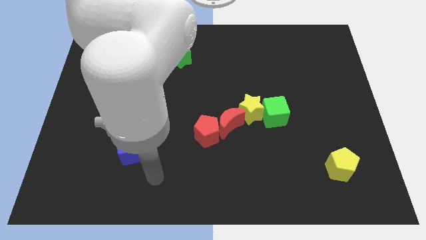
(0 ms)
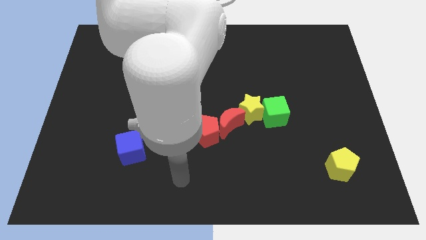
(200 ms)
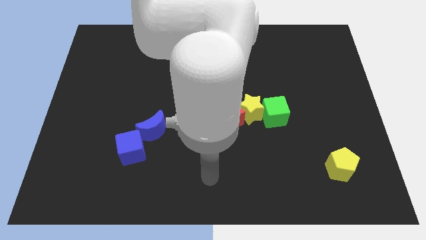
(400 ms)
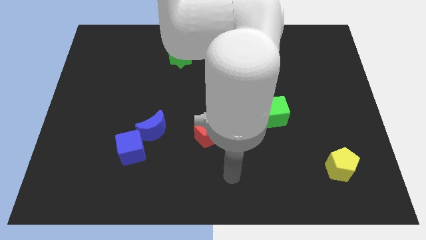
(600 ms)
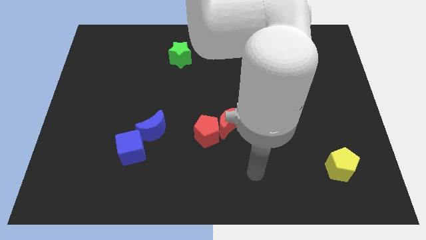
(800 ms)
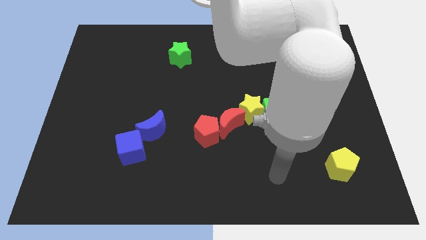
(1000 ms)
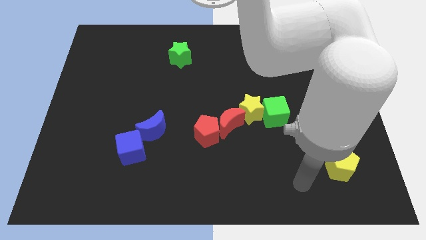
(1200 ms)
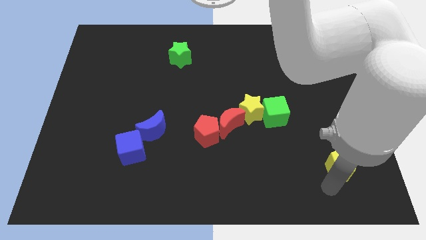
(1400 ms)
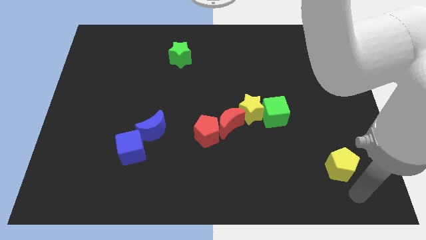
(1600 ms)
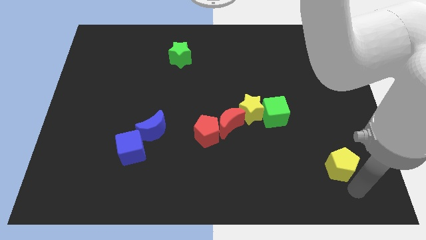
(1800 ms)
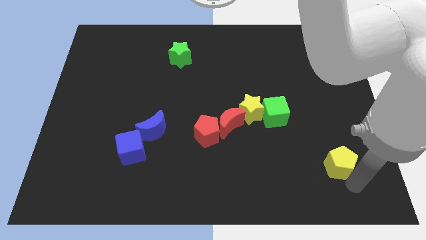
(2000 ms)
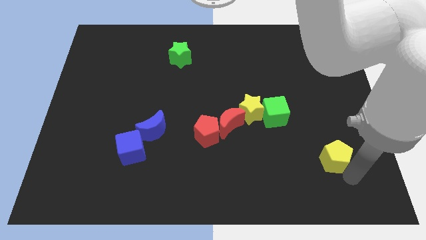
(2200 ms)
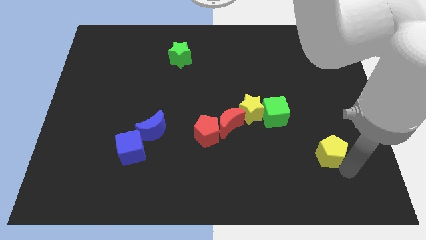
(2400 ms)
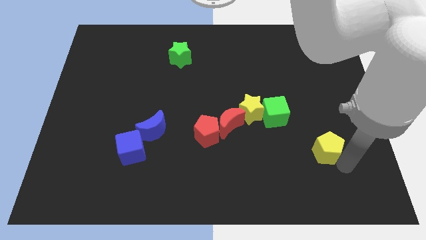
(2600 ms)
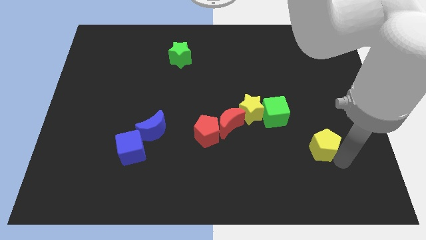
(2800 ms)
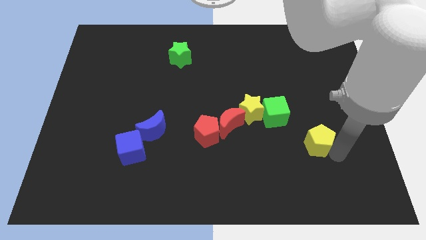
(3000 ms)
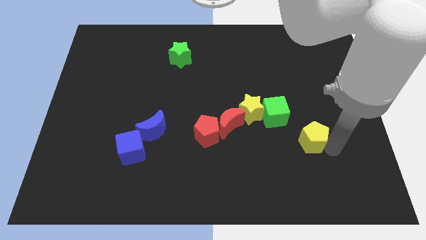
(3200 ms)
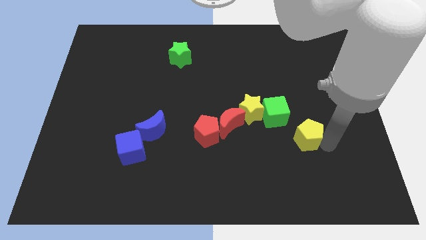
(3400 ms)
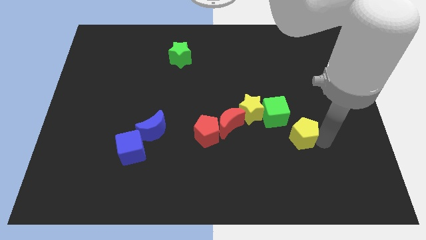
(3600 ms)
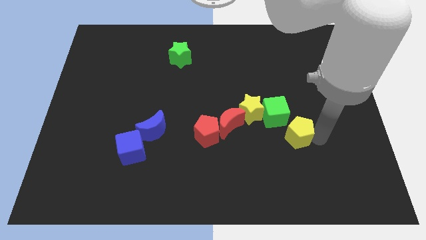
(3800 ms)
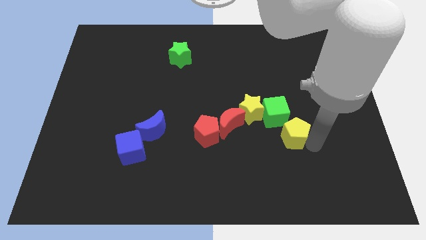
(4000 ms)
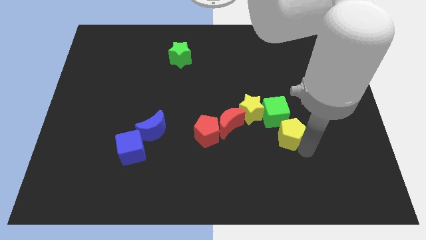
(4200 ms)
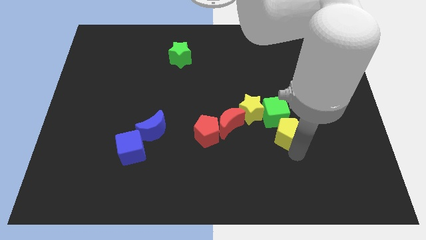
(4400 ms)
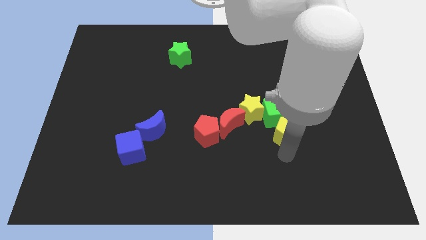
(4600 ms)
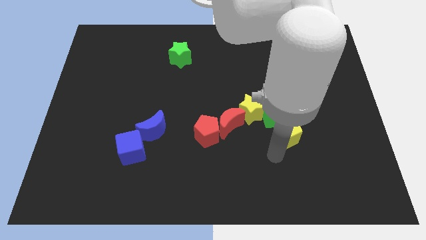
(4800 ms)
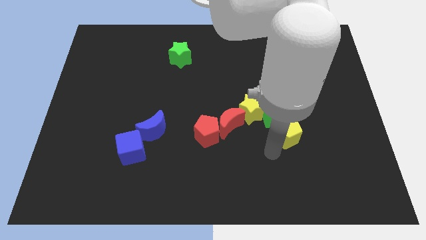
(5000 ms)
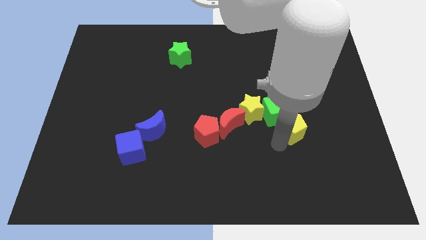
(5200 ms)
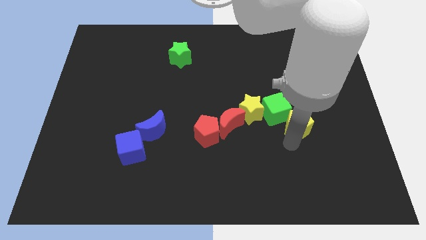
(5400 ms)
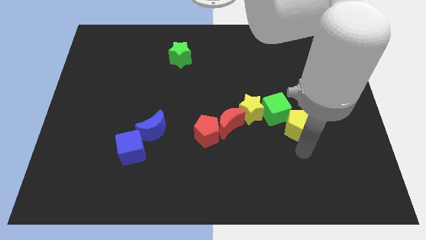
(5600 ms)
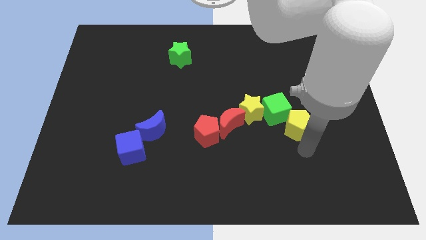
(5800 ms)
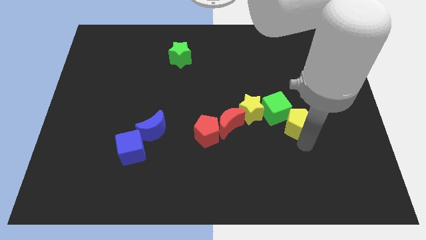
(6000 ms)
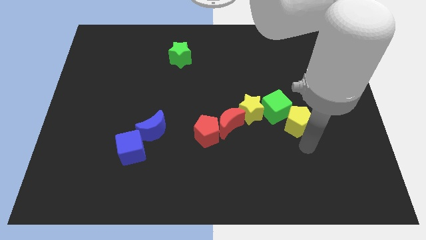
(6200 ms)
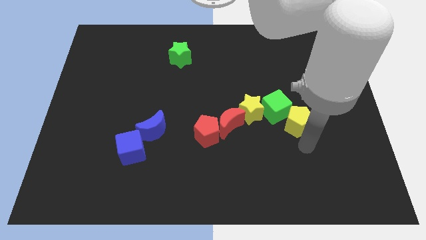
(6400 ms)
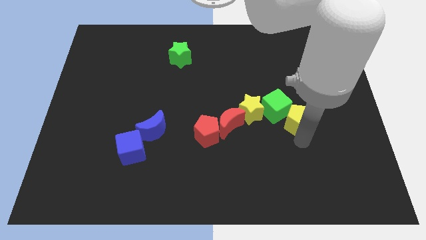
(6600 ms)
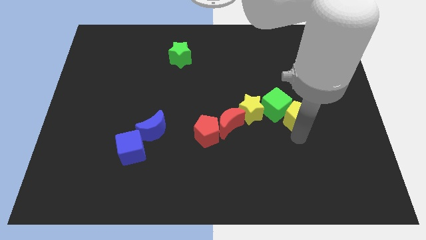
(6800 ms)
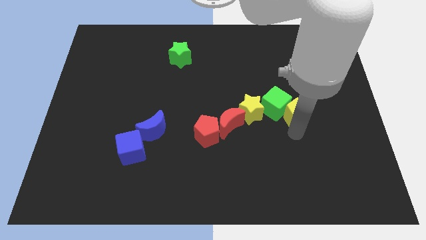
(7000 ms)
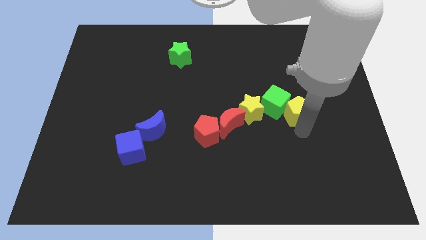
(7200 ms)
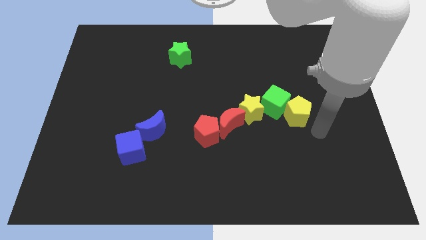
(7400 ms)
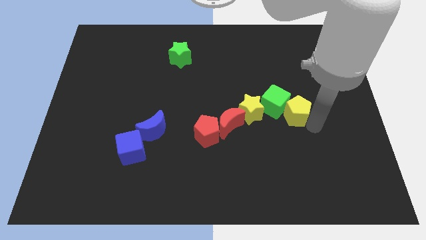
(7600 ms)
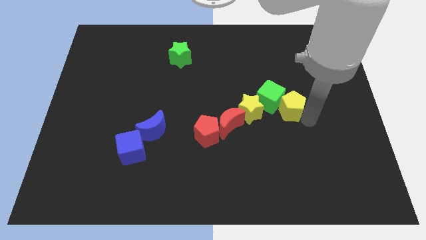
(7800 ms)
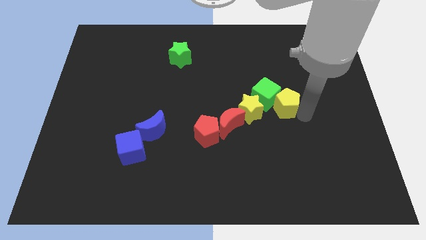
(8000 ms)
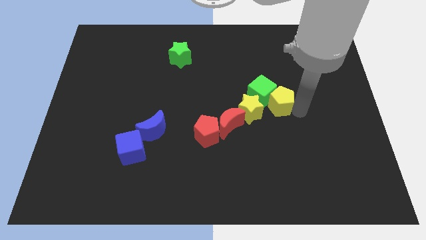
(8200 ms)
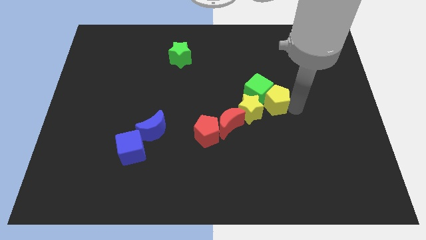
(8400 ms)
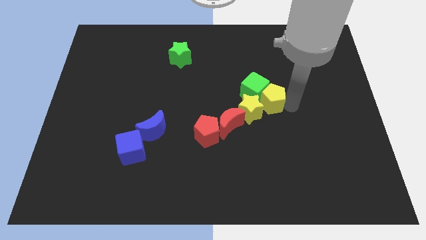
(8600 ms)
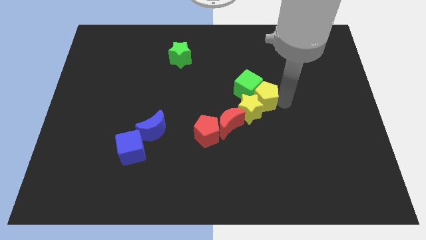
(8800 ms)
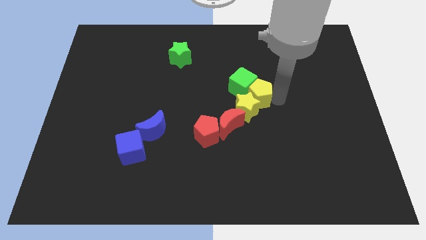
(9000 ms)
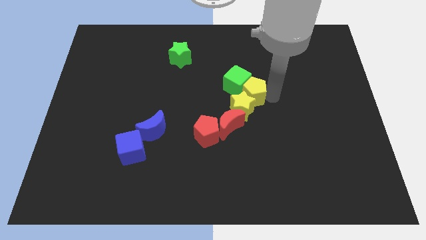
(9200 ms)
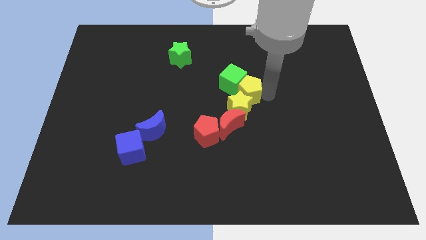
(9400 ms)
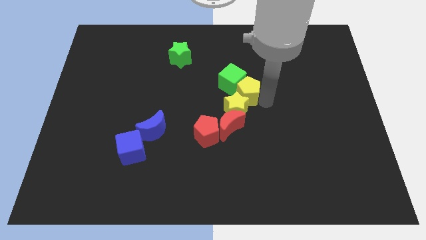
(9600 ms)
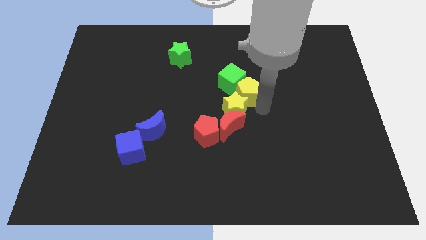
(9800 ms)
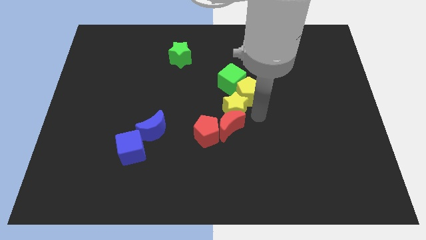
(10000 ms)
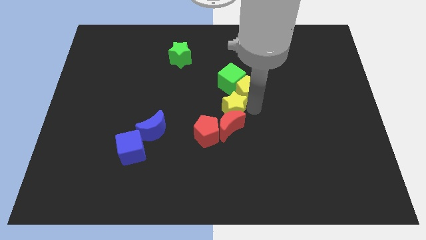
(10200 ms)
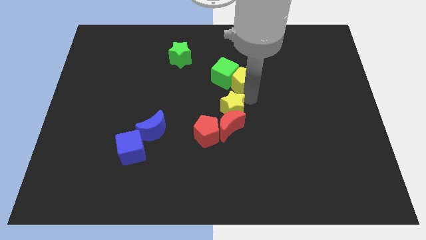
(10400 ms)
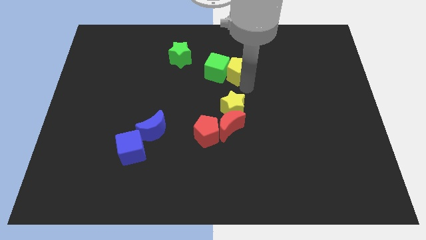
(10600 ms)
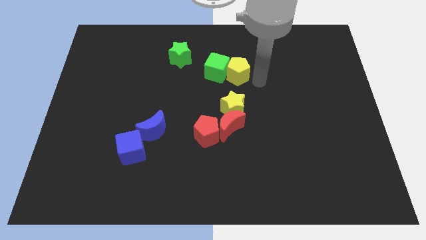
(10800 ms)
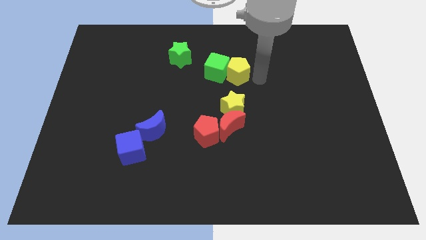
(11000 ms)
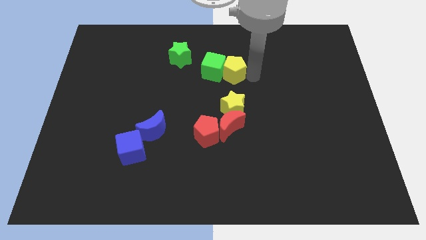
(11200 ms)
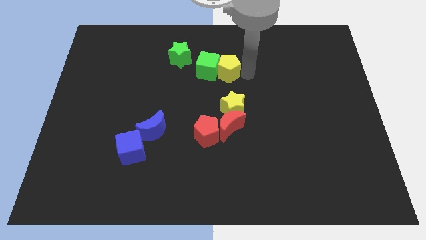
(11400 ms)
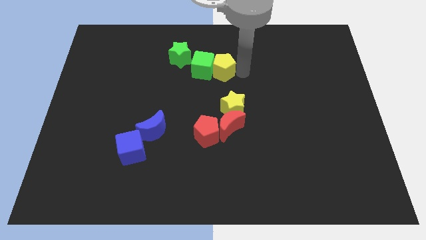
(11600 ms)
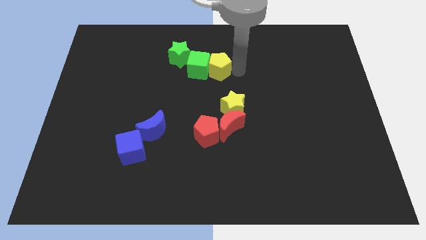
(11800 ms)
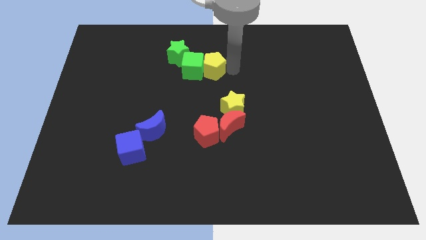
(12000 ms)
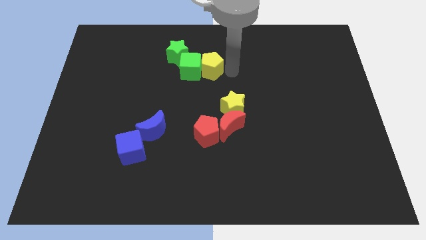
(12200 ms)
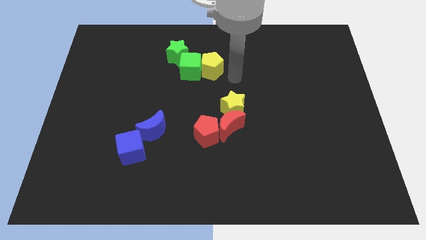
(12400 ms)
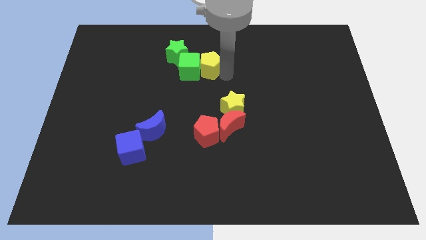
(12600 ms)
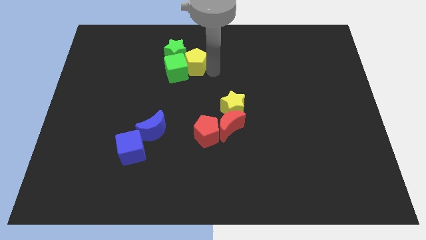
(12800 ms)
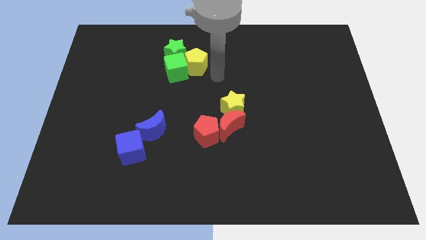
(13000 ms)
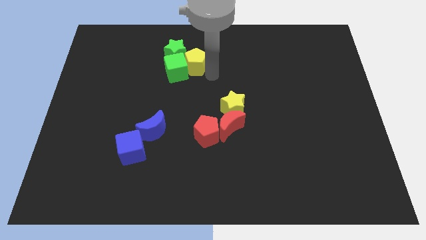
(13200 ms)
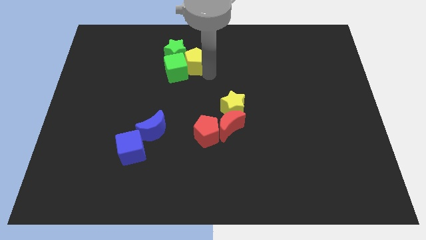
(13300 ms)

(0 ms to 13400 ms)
put the yellow pentagon to the green star

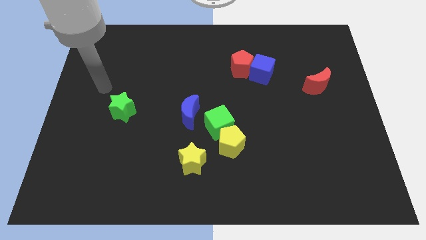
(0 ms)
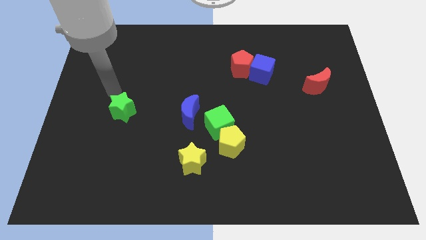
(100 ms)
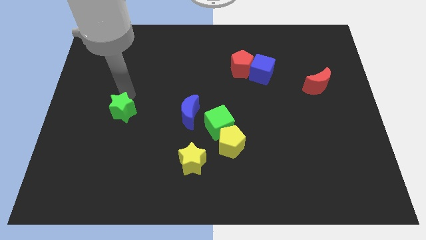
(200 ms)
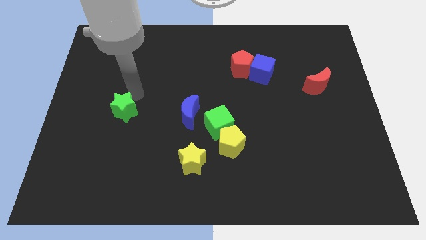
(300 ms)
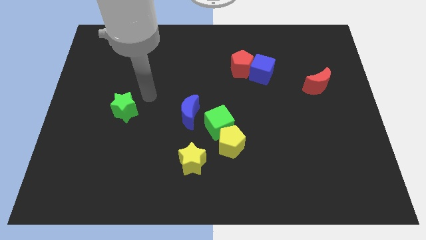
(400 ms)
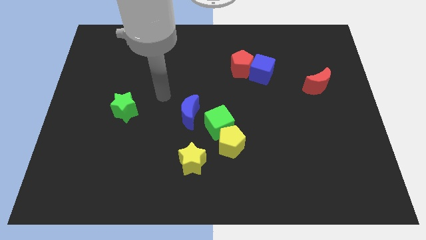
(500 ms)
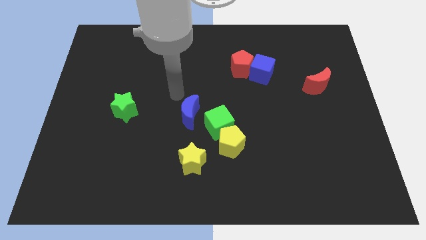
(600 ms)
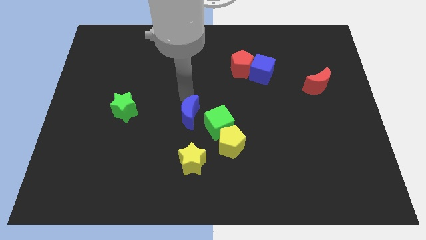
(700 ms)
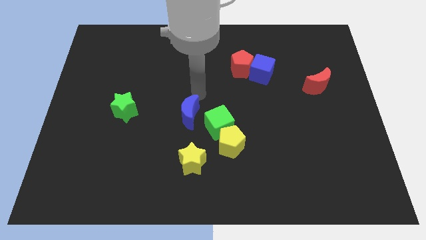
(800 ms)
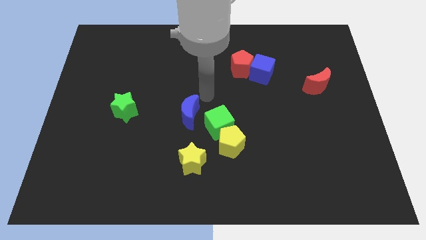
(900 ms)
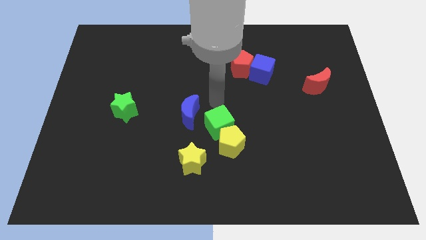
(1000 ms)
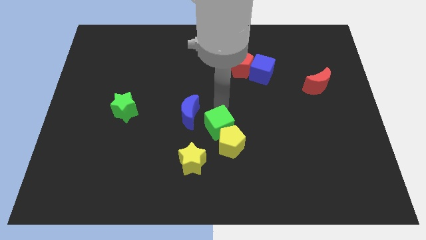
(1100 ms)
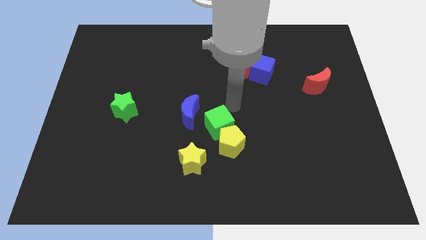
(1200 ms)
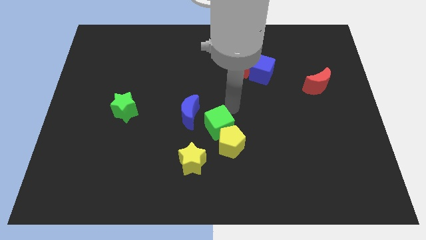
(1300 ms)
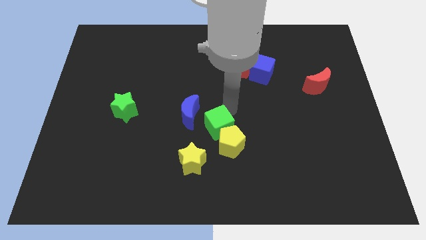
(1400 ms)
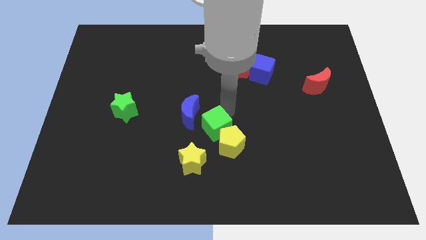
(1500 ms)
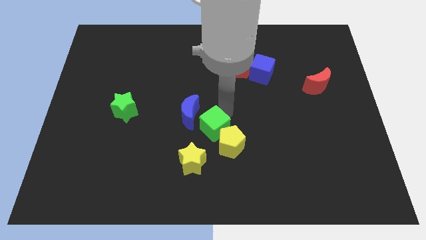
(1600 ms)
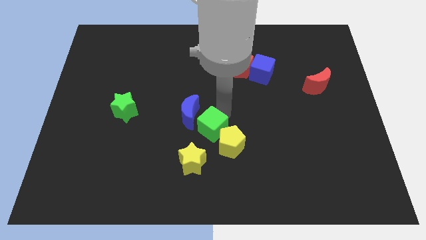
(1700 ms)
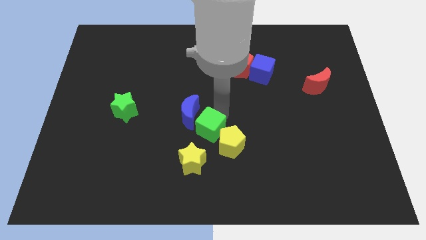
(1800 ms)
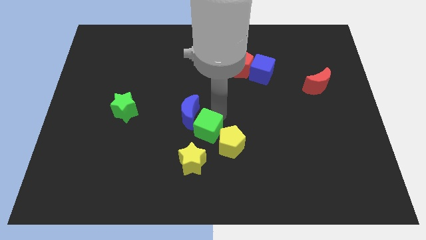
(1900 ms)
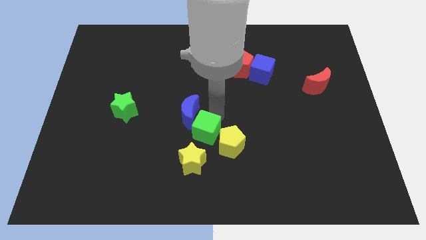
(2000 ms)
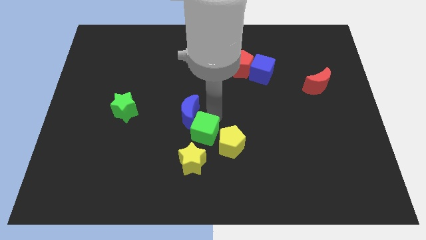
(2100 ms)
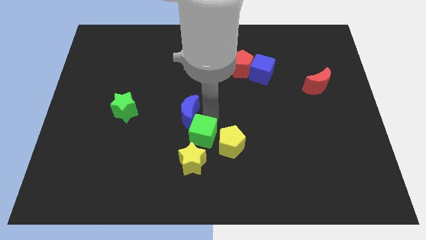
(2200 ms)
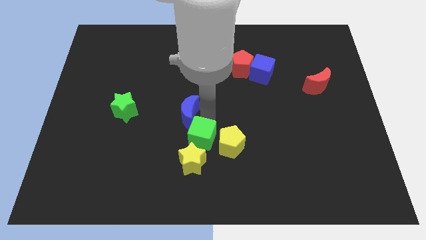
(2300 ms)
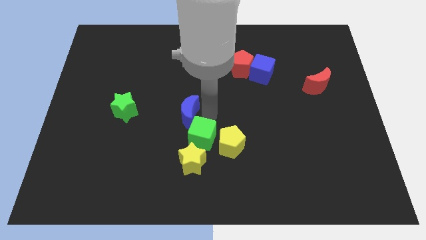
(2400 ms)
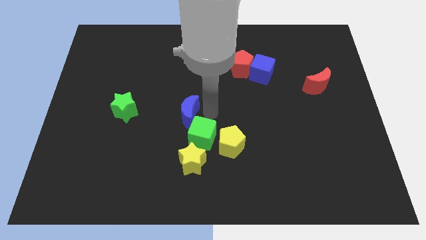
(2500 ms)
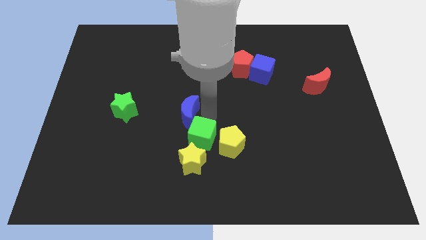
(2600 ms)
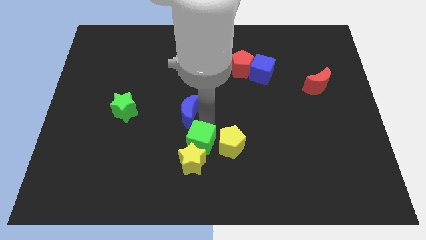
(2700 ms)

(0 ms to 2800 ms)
slide the green cube to the yellow star
